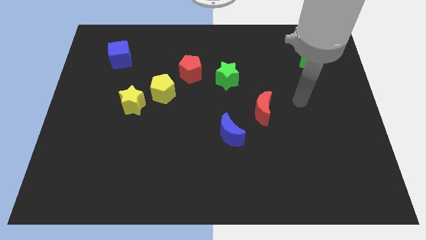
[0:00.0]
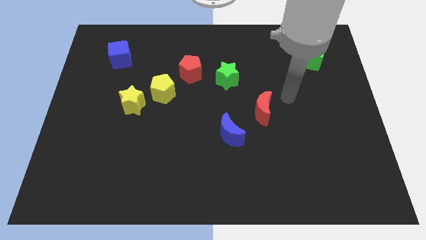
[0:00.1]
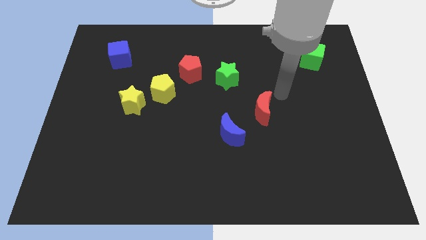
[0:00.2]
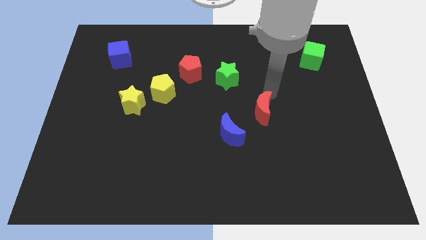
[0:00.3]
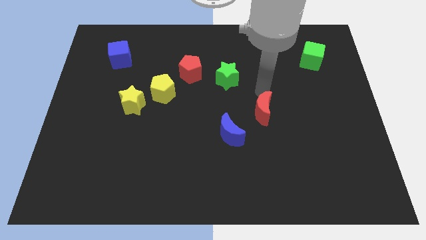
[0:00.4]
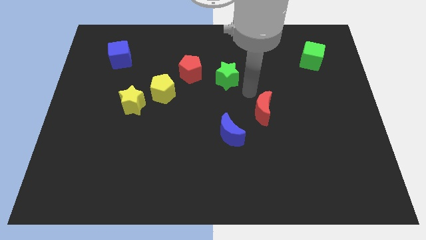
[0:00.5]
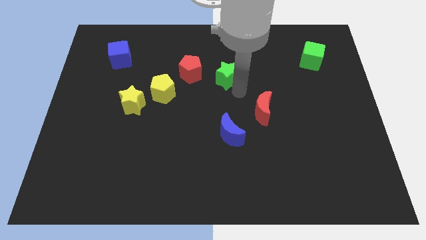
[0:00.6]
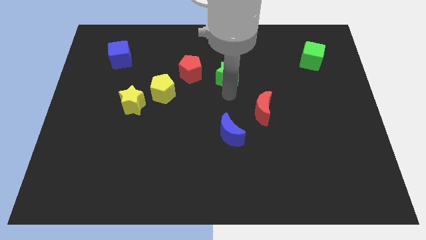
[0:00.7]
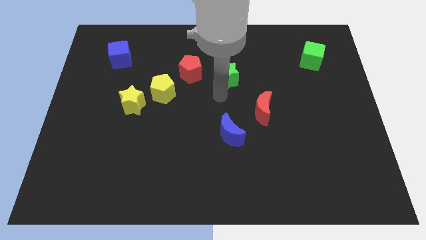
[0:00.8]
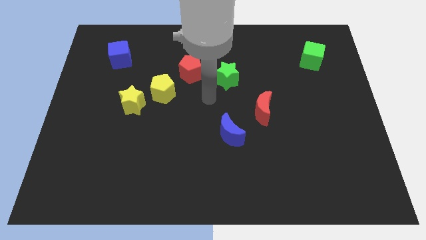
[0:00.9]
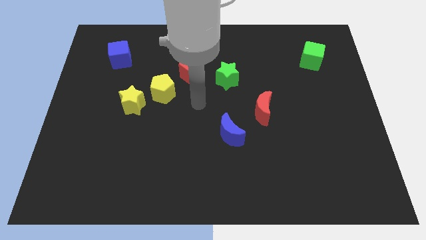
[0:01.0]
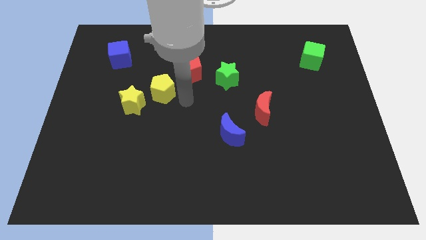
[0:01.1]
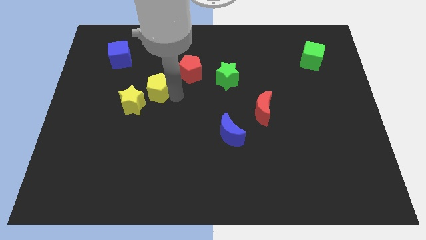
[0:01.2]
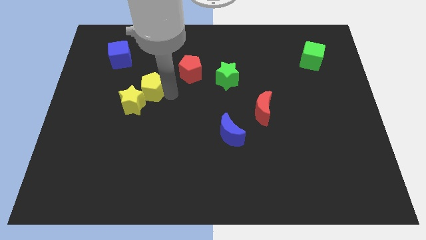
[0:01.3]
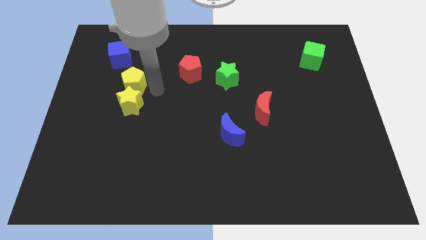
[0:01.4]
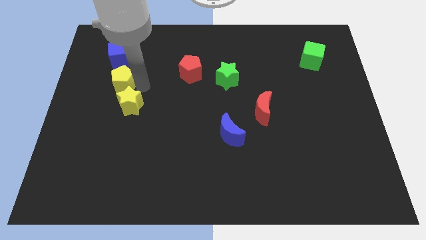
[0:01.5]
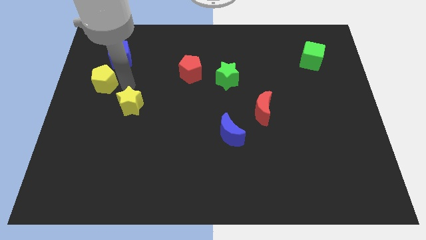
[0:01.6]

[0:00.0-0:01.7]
pull the yellow star apart from the yellow pentagon

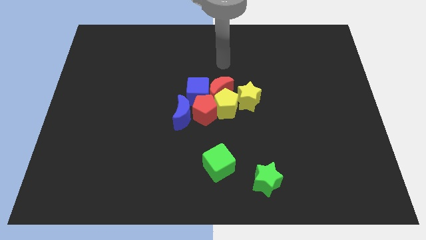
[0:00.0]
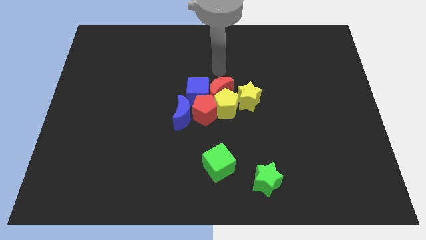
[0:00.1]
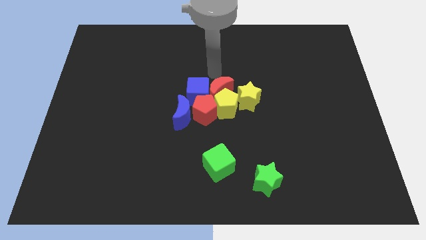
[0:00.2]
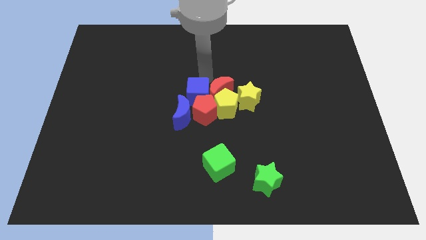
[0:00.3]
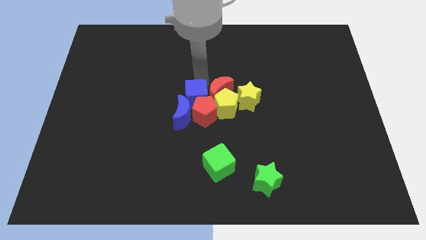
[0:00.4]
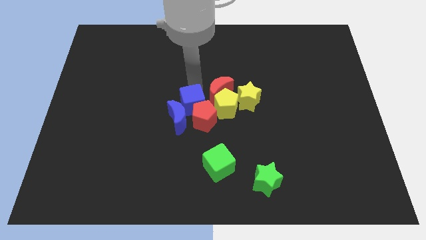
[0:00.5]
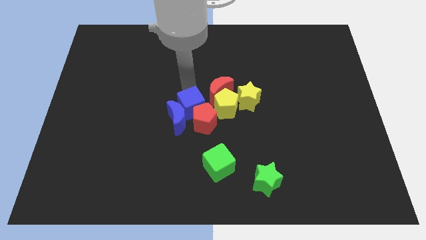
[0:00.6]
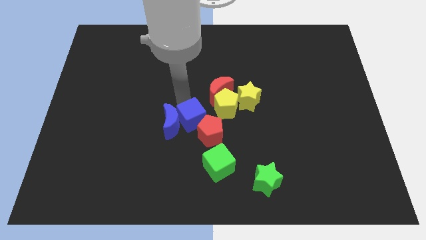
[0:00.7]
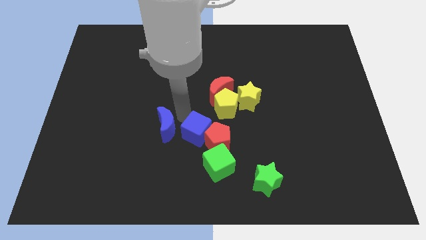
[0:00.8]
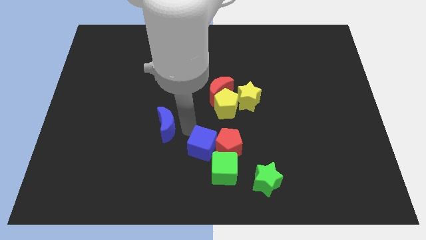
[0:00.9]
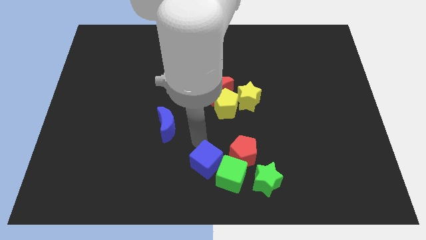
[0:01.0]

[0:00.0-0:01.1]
separate the red pentagon from the group

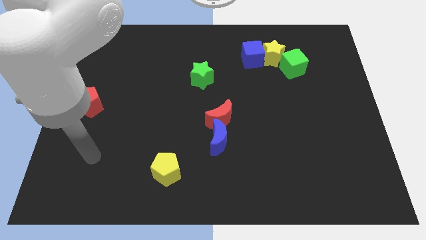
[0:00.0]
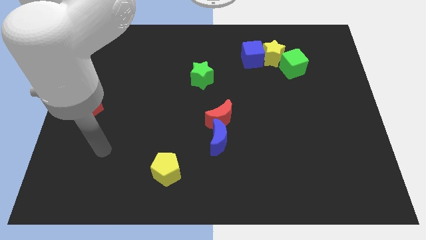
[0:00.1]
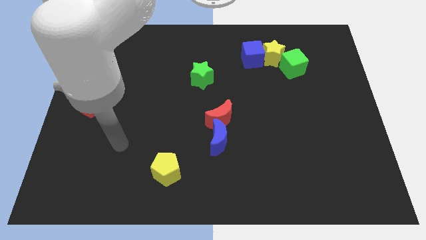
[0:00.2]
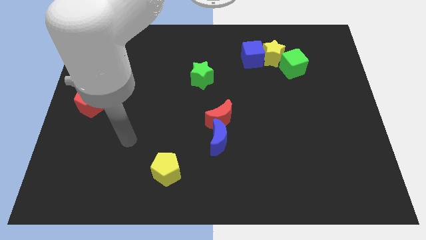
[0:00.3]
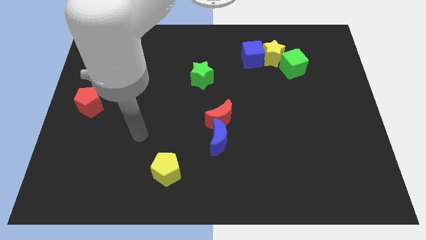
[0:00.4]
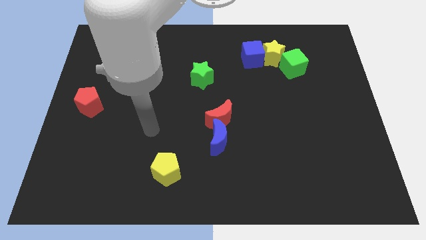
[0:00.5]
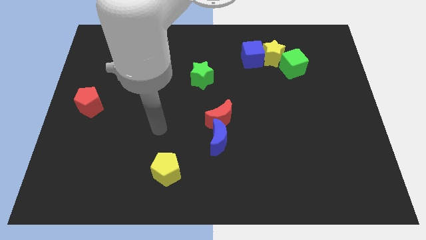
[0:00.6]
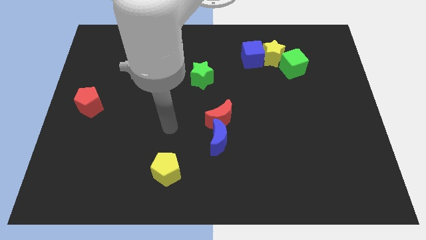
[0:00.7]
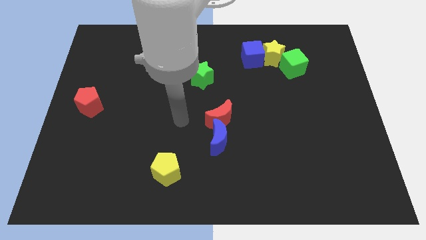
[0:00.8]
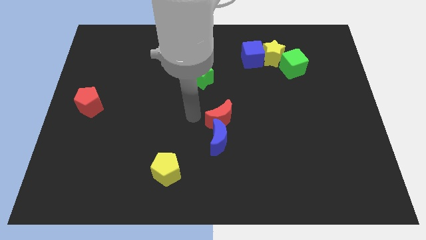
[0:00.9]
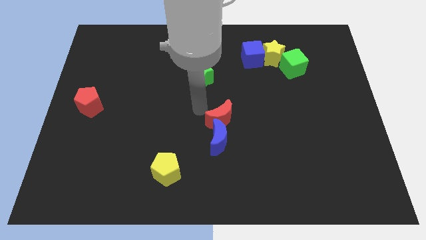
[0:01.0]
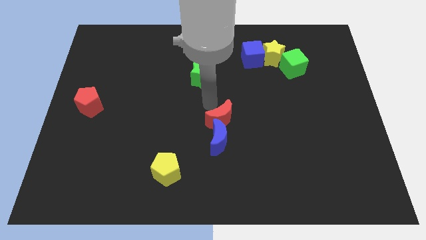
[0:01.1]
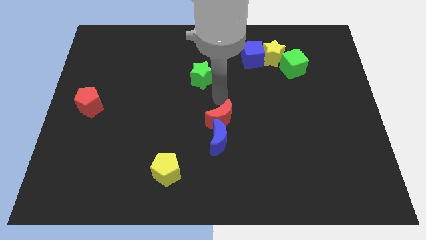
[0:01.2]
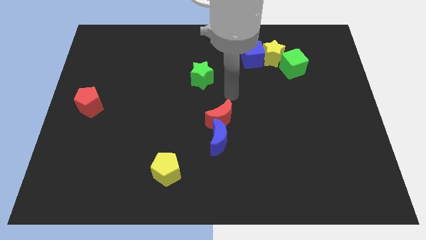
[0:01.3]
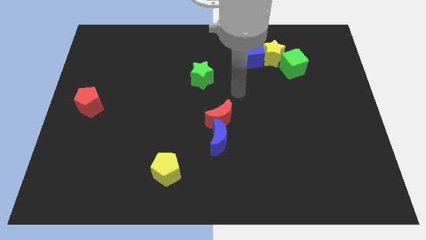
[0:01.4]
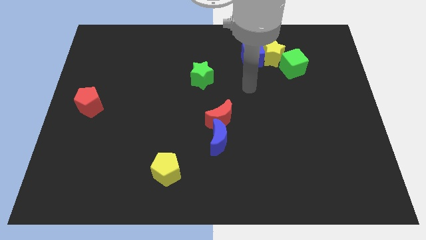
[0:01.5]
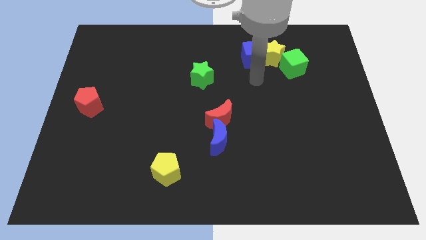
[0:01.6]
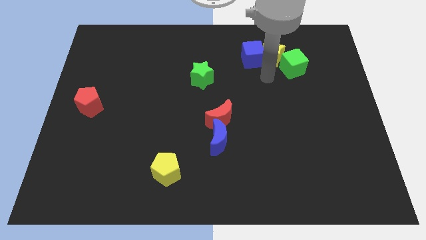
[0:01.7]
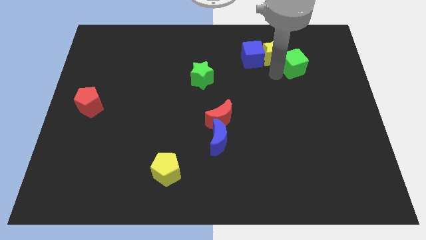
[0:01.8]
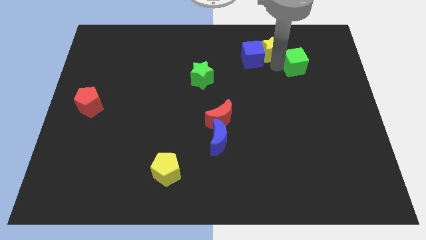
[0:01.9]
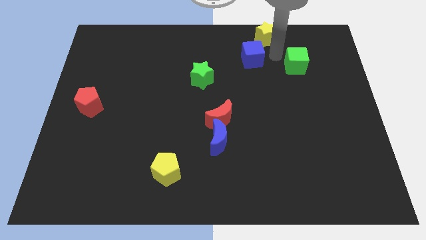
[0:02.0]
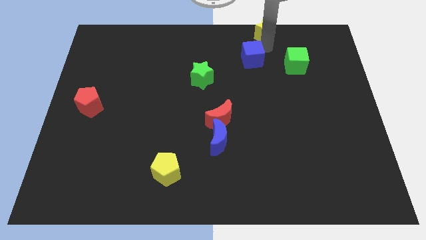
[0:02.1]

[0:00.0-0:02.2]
move the blue cube away from the yellow star

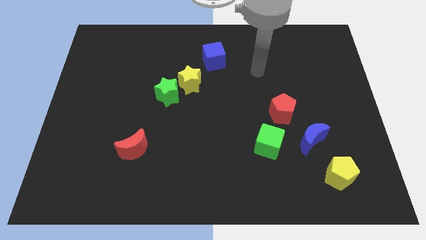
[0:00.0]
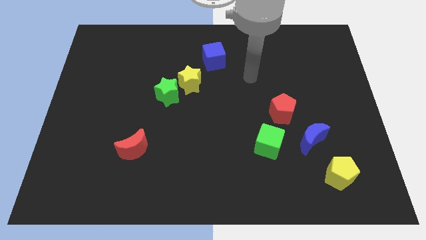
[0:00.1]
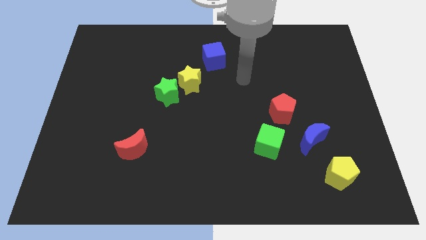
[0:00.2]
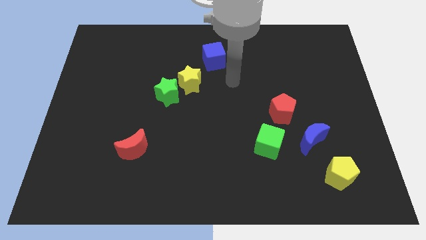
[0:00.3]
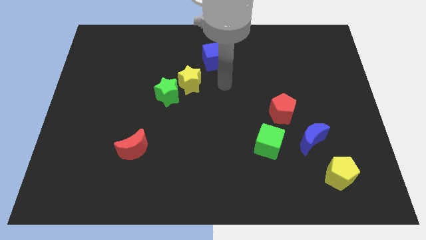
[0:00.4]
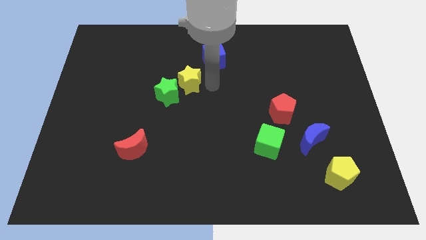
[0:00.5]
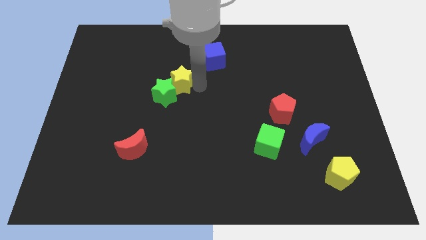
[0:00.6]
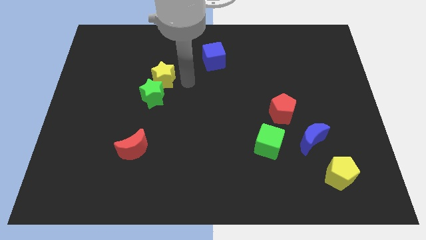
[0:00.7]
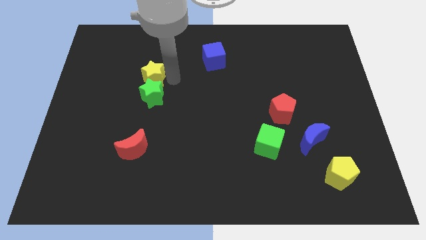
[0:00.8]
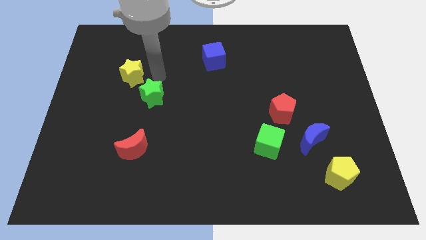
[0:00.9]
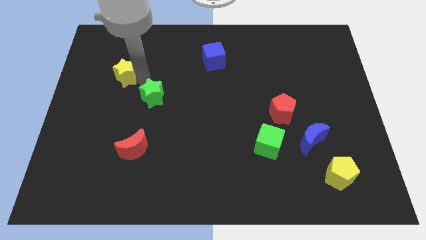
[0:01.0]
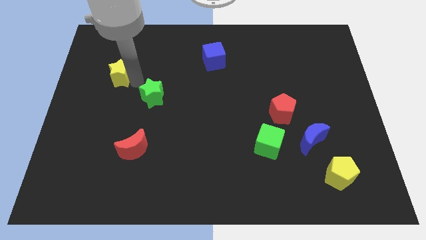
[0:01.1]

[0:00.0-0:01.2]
pull the green star apart from the yellow star

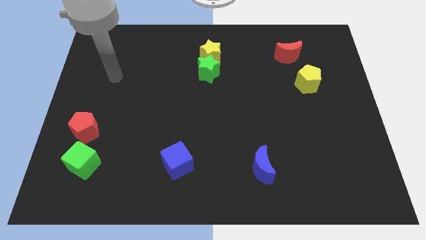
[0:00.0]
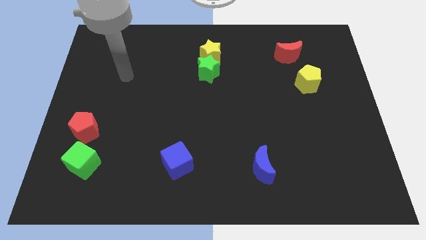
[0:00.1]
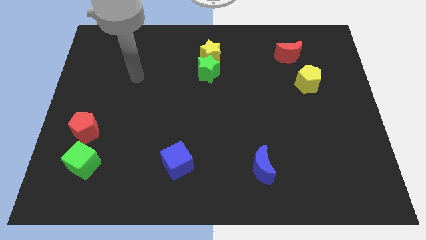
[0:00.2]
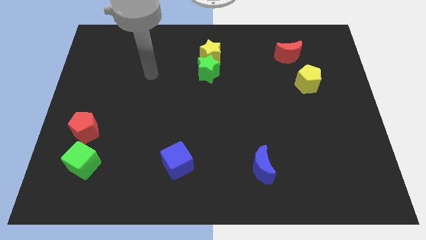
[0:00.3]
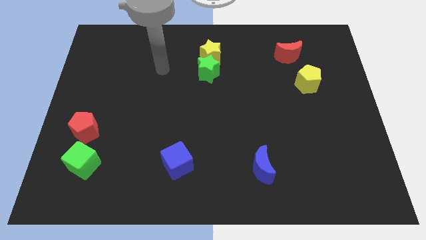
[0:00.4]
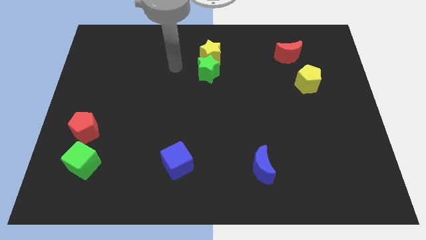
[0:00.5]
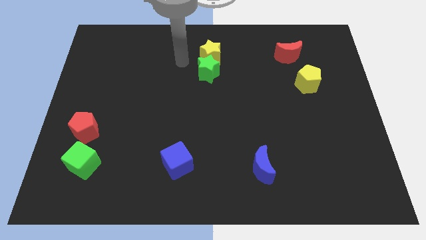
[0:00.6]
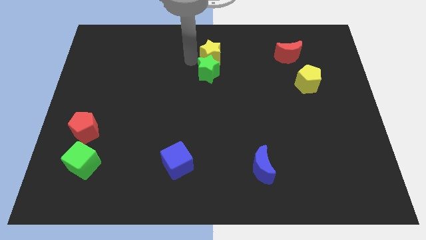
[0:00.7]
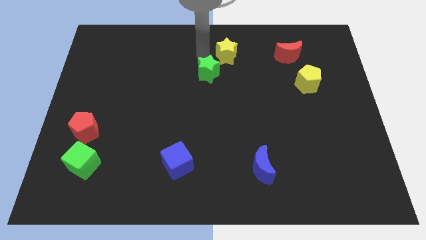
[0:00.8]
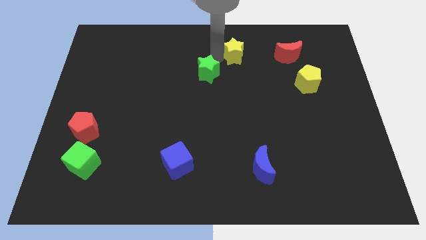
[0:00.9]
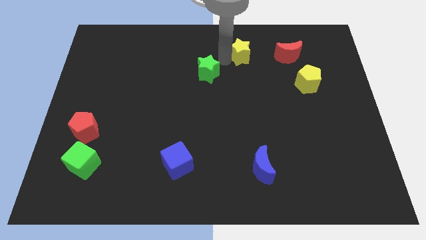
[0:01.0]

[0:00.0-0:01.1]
separate the green star from the yellow star

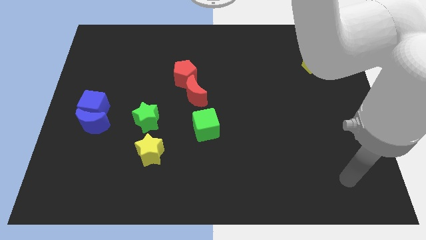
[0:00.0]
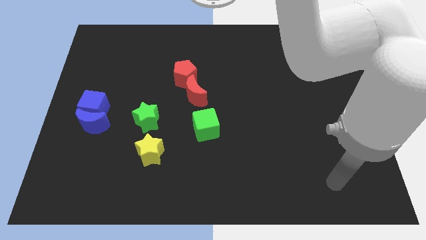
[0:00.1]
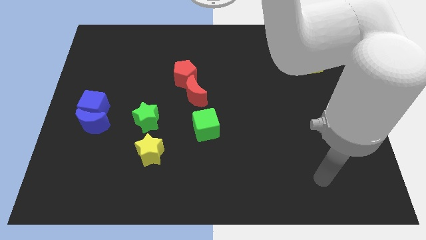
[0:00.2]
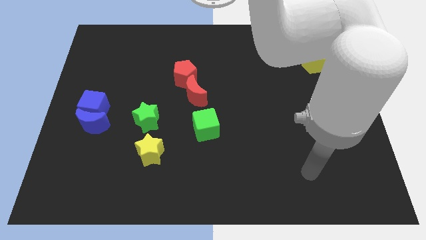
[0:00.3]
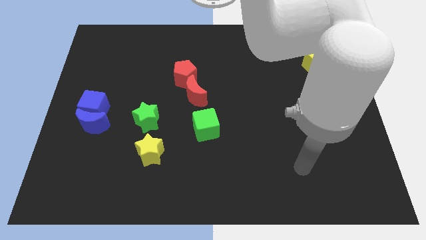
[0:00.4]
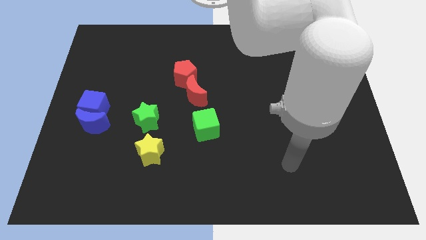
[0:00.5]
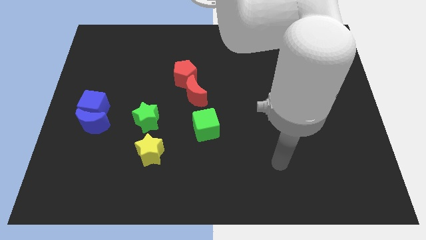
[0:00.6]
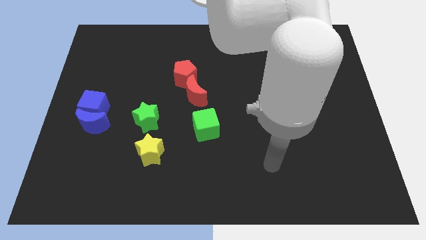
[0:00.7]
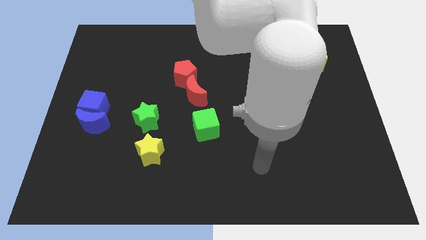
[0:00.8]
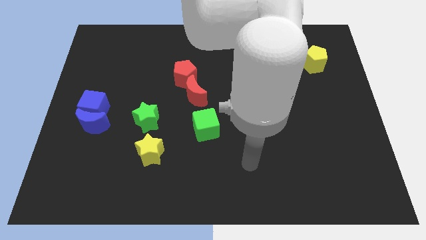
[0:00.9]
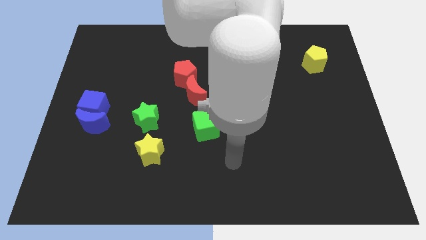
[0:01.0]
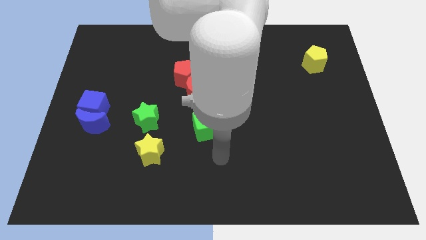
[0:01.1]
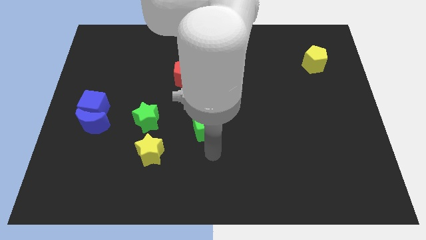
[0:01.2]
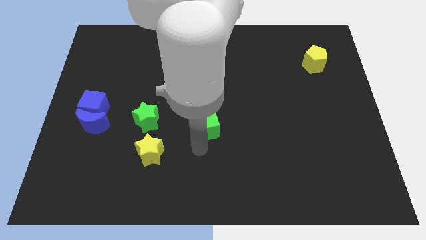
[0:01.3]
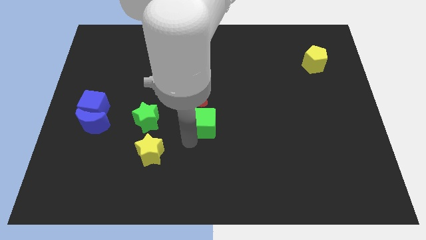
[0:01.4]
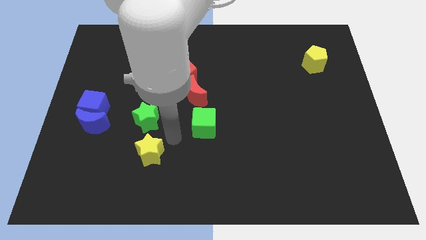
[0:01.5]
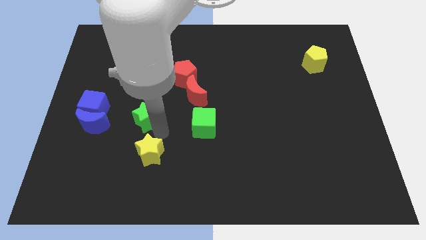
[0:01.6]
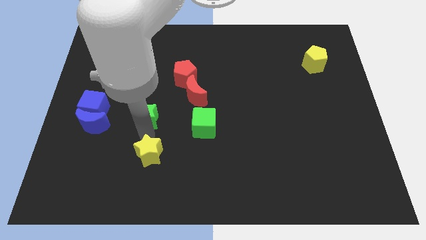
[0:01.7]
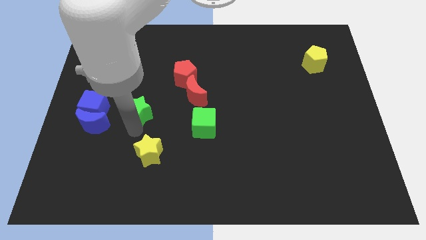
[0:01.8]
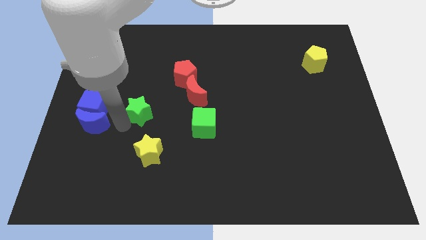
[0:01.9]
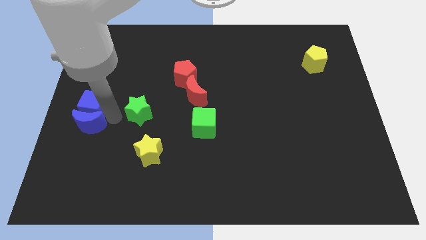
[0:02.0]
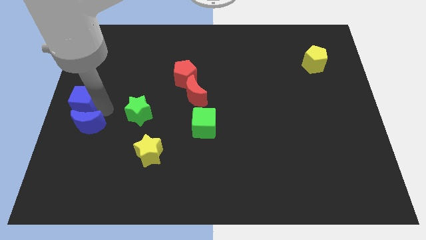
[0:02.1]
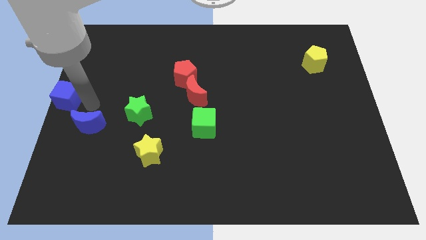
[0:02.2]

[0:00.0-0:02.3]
pull the blue moon apart from the blue cube
